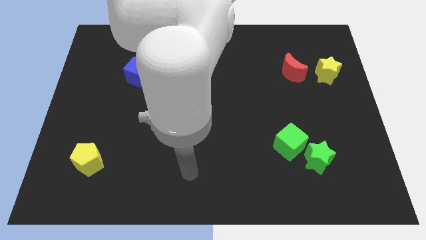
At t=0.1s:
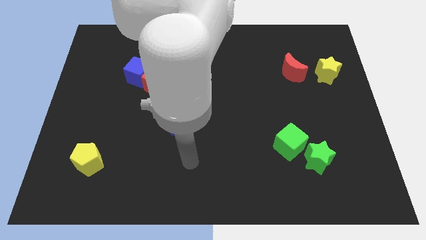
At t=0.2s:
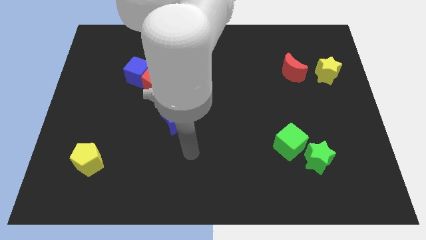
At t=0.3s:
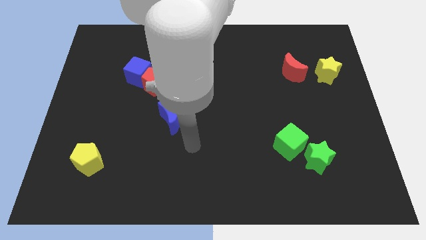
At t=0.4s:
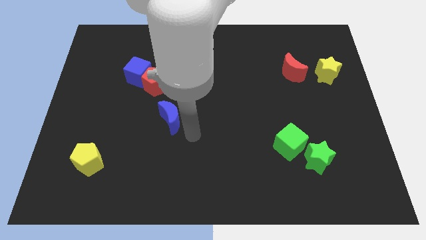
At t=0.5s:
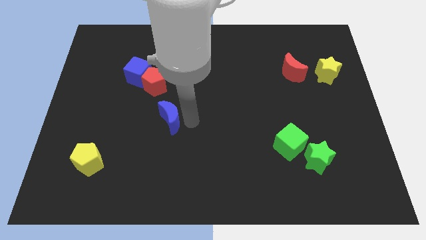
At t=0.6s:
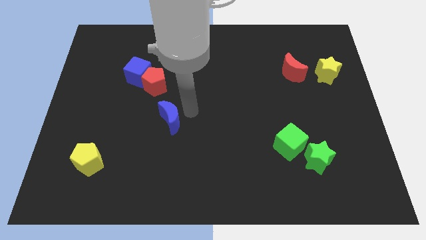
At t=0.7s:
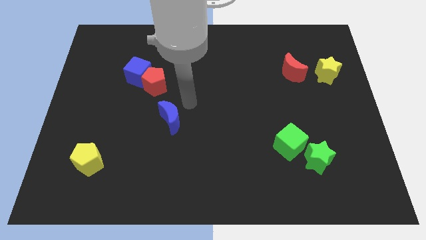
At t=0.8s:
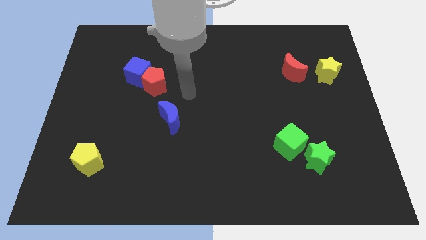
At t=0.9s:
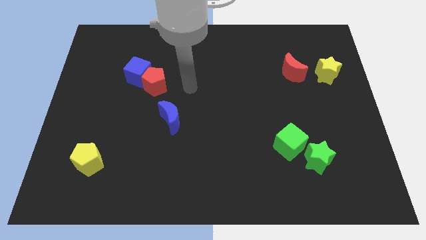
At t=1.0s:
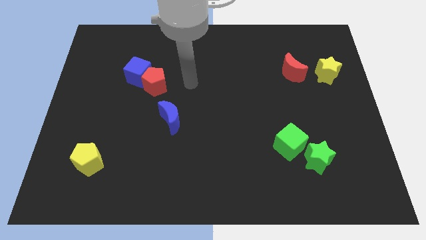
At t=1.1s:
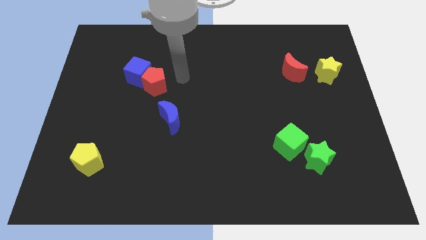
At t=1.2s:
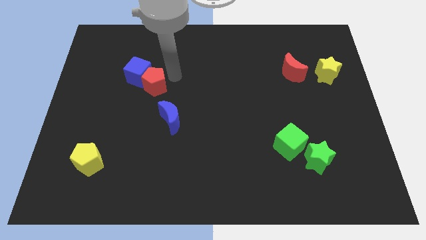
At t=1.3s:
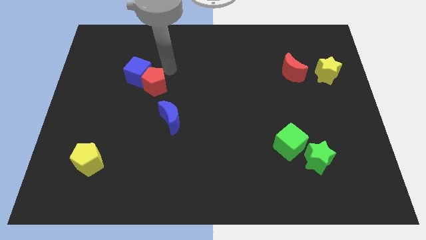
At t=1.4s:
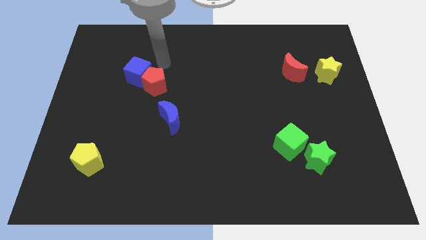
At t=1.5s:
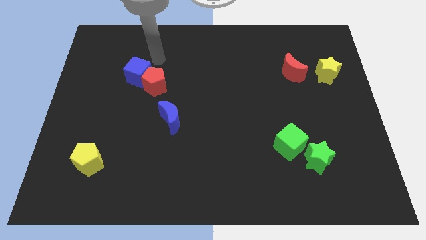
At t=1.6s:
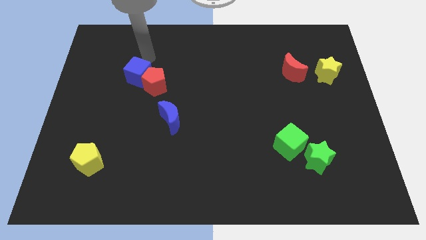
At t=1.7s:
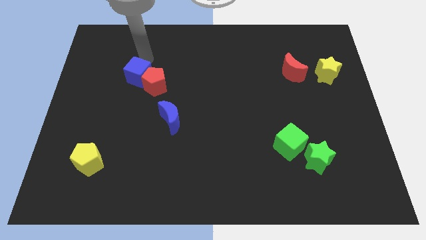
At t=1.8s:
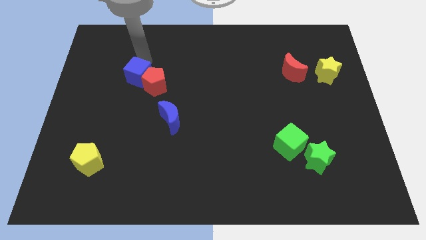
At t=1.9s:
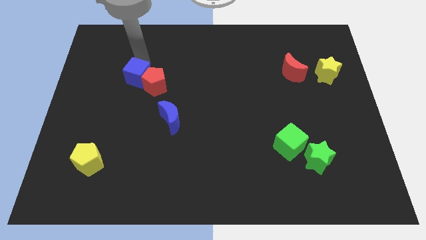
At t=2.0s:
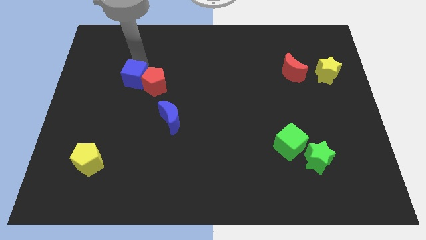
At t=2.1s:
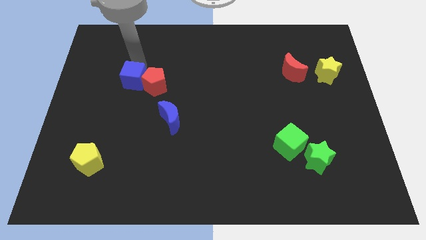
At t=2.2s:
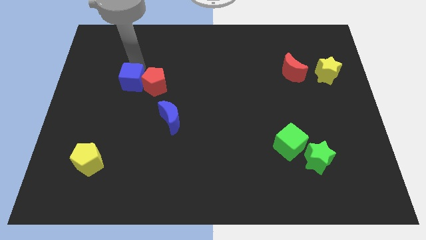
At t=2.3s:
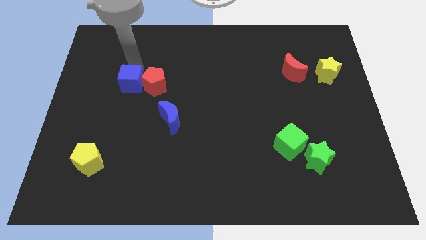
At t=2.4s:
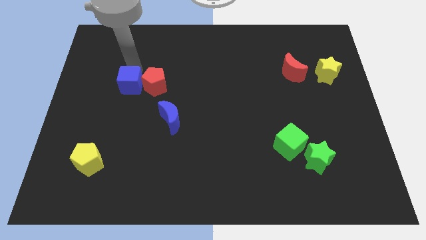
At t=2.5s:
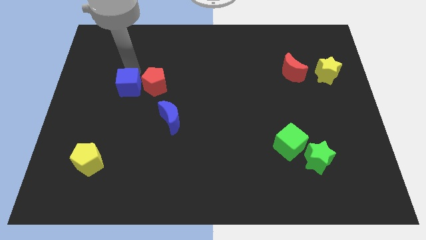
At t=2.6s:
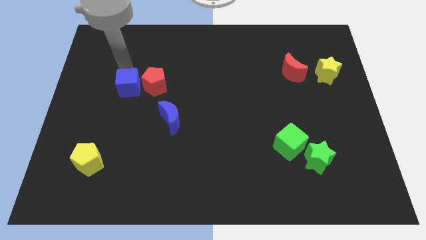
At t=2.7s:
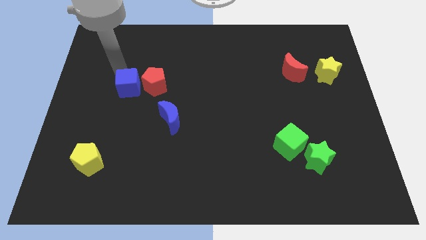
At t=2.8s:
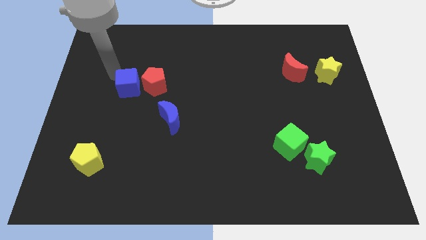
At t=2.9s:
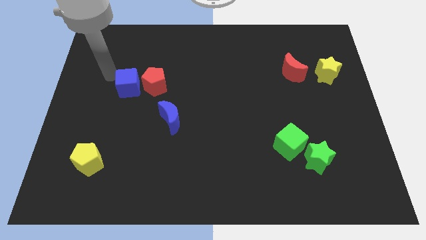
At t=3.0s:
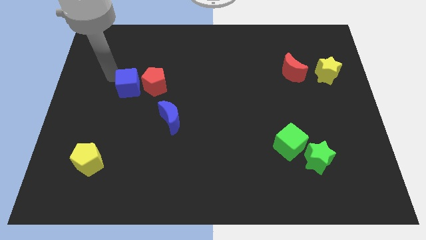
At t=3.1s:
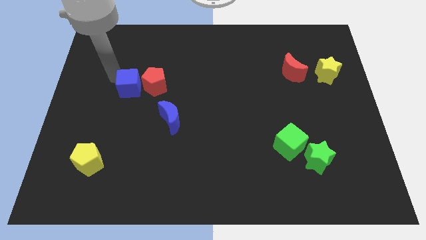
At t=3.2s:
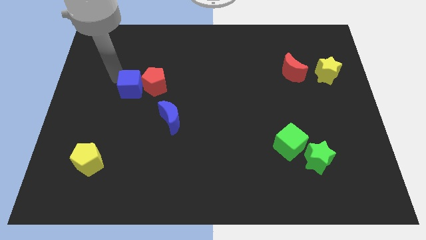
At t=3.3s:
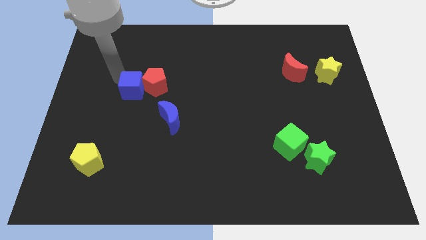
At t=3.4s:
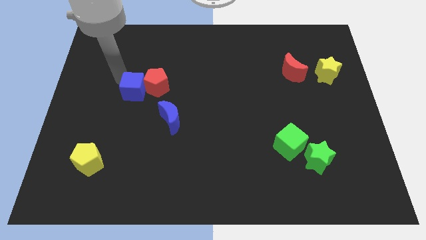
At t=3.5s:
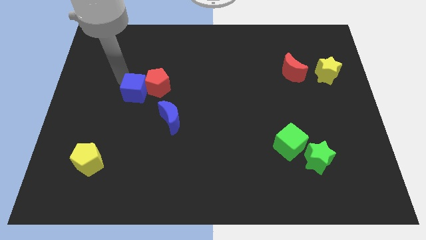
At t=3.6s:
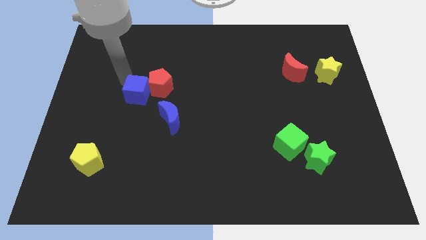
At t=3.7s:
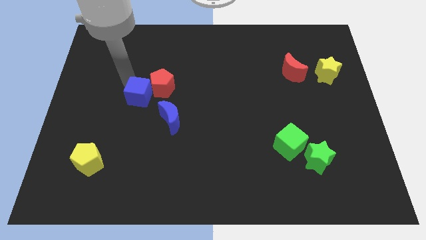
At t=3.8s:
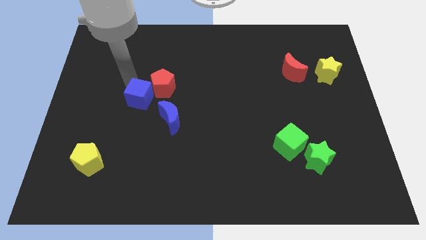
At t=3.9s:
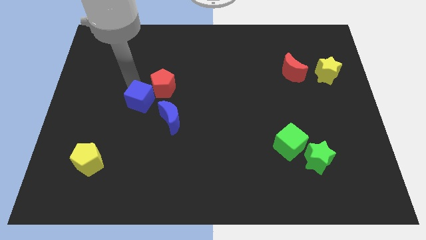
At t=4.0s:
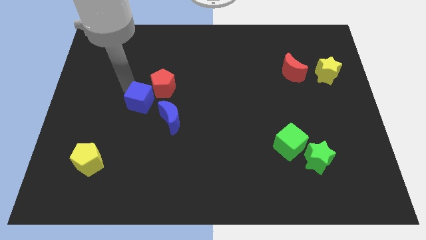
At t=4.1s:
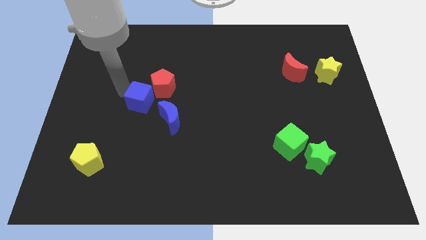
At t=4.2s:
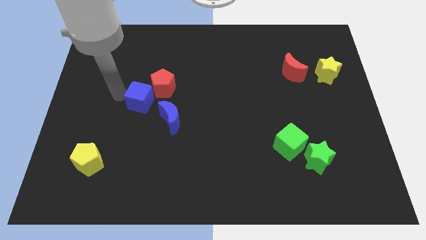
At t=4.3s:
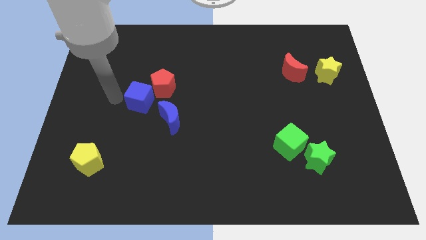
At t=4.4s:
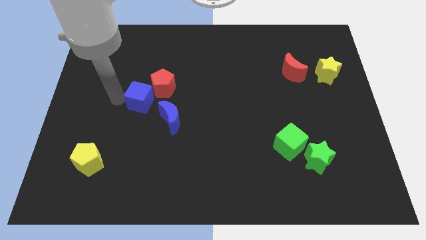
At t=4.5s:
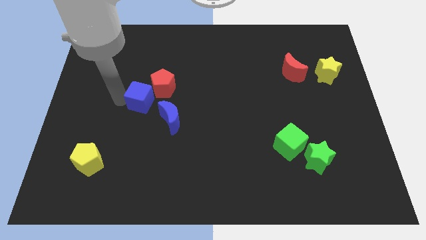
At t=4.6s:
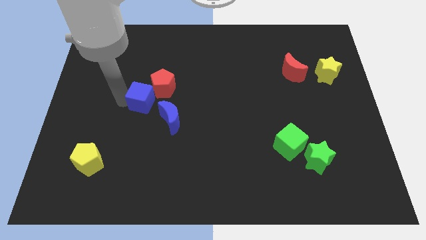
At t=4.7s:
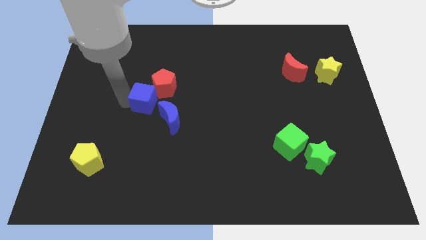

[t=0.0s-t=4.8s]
slide the blue cube a bit down and right

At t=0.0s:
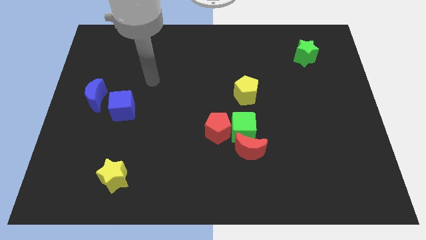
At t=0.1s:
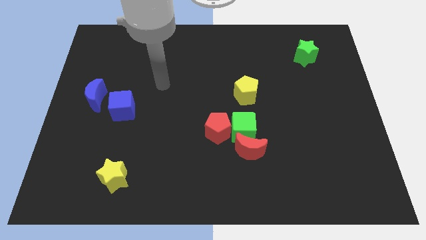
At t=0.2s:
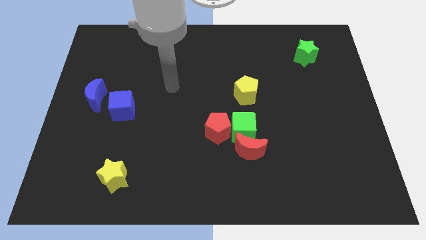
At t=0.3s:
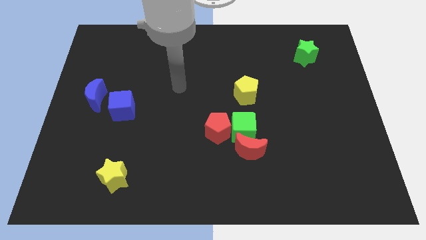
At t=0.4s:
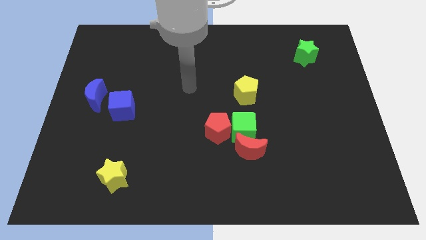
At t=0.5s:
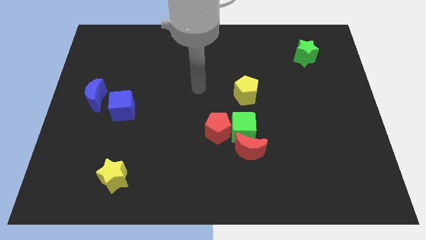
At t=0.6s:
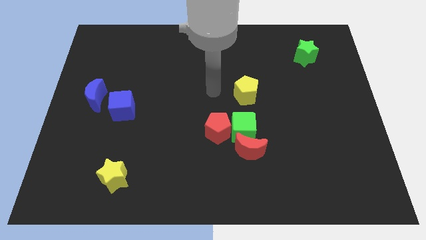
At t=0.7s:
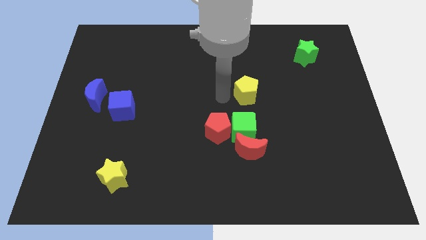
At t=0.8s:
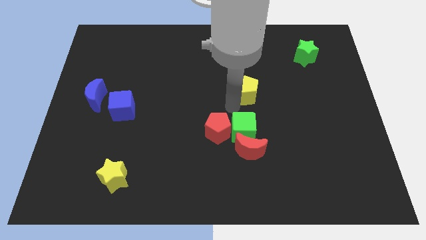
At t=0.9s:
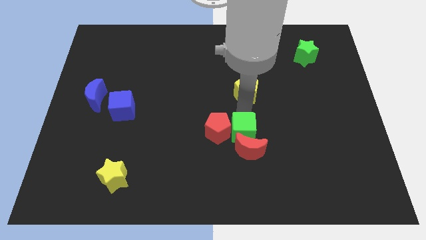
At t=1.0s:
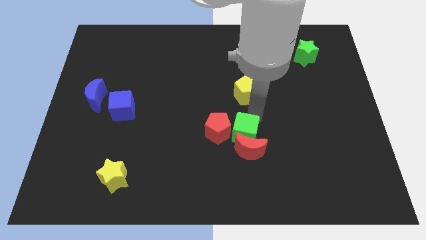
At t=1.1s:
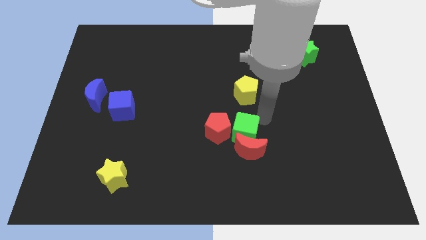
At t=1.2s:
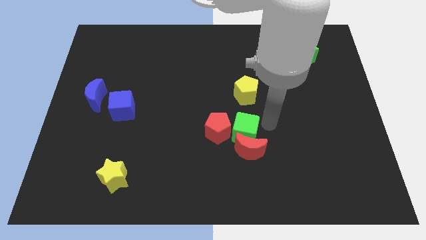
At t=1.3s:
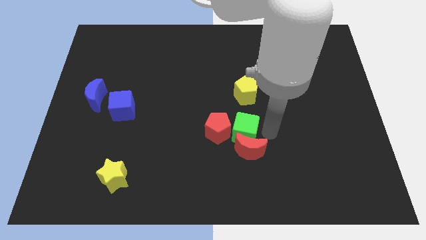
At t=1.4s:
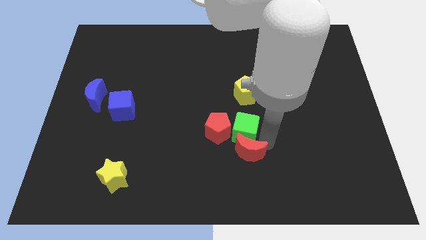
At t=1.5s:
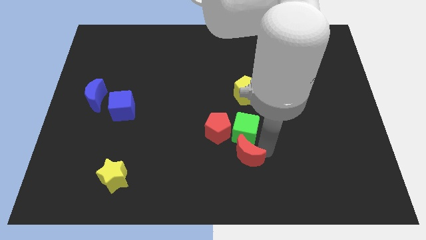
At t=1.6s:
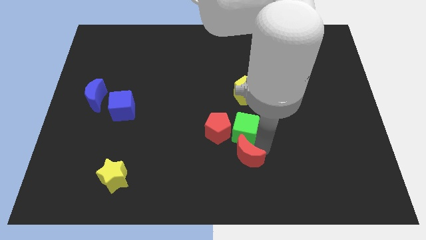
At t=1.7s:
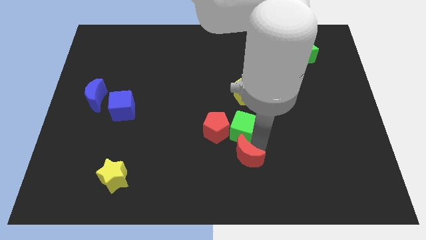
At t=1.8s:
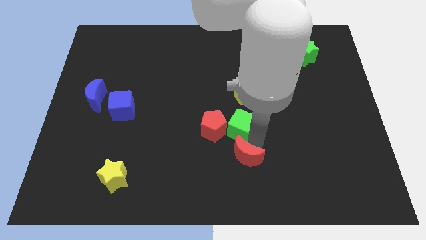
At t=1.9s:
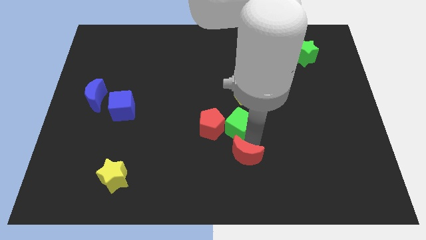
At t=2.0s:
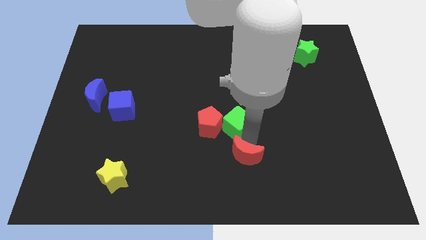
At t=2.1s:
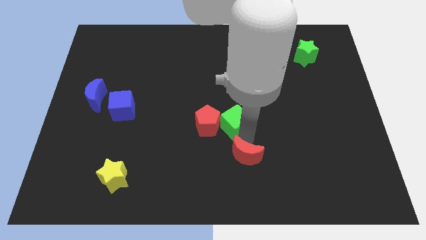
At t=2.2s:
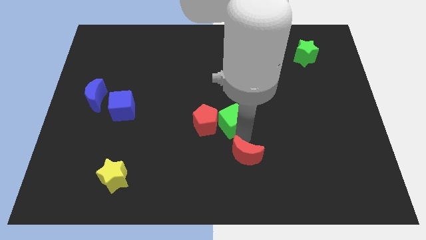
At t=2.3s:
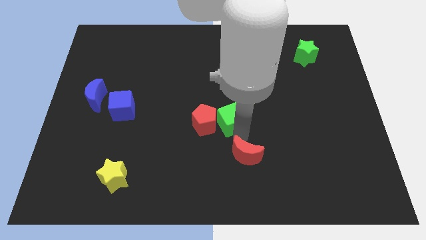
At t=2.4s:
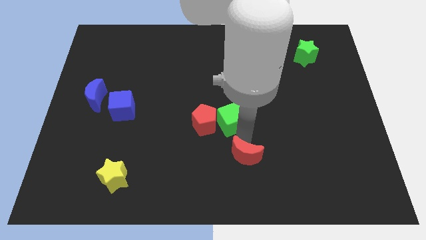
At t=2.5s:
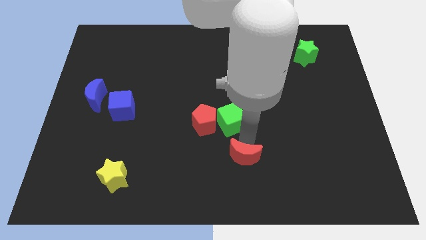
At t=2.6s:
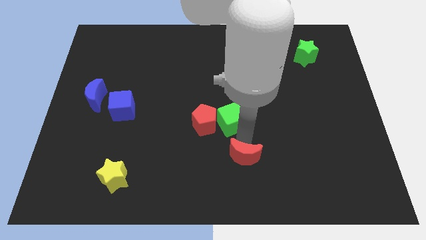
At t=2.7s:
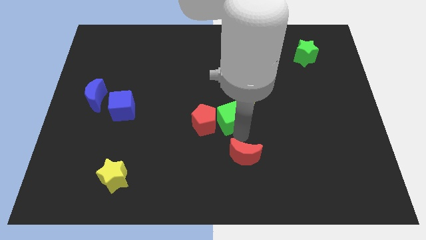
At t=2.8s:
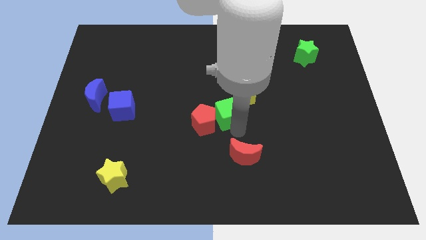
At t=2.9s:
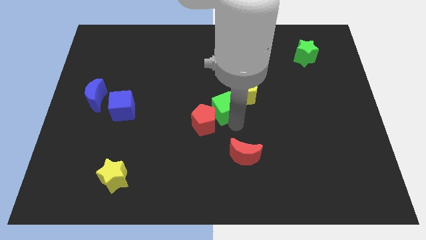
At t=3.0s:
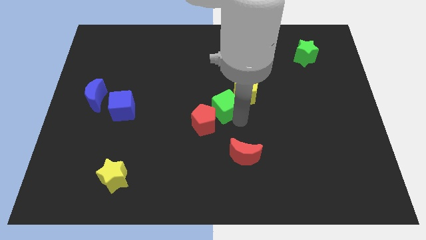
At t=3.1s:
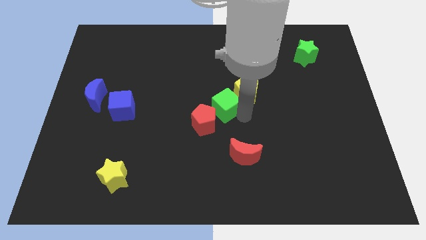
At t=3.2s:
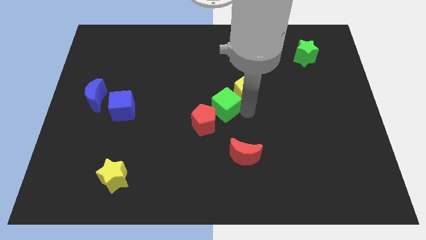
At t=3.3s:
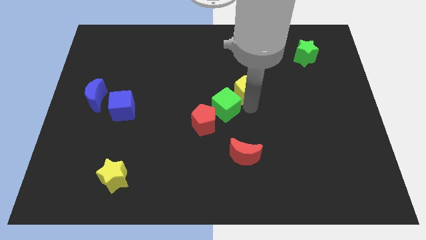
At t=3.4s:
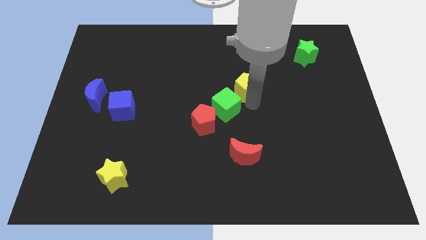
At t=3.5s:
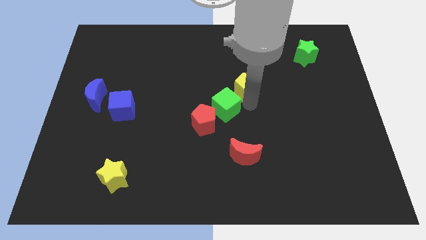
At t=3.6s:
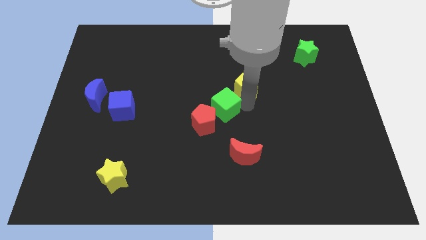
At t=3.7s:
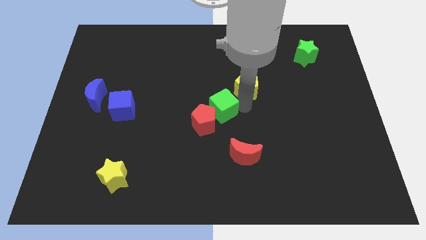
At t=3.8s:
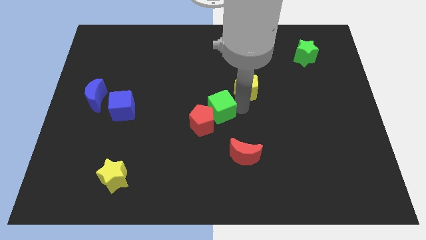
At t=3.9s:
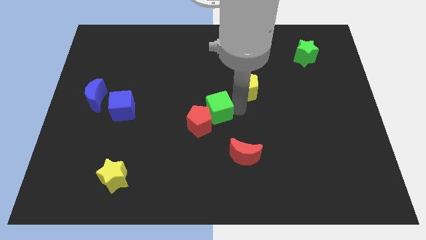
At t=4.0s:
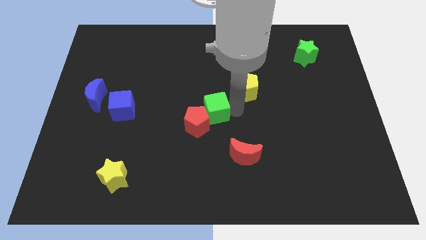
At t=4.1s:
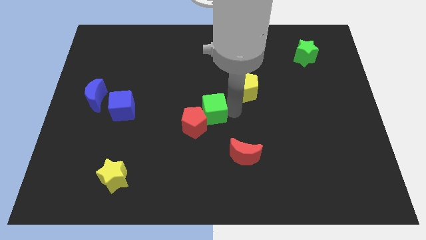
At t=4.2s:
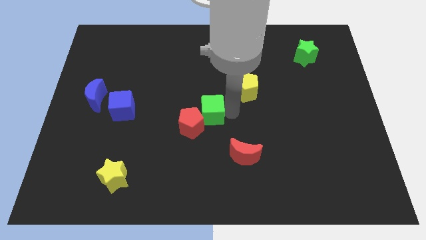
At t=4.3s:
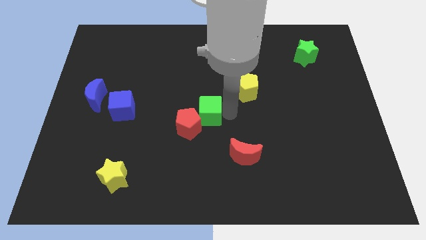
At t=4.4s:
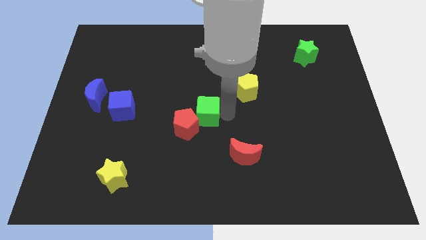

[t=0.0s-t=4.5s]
slightly push the green cube to the left
